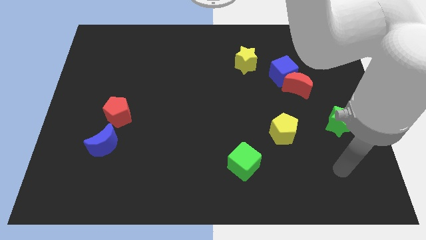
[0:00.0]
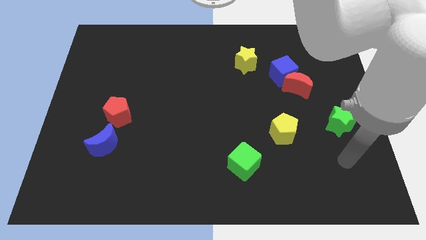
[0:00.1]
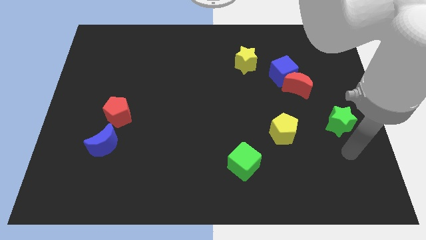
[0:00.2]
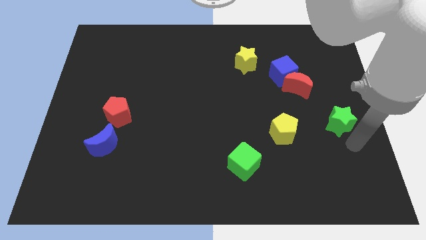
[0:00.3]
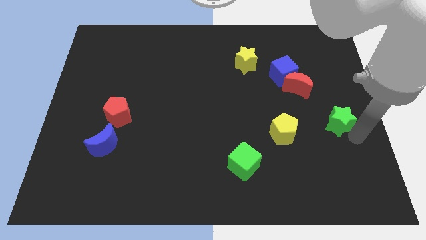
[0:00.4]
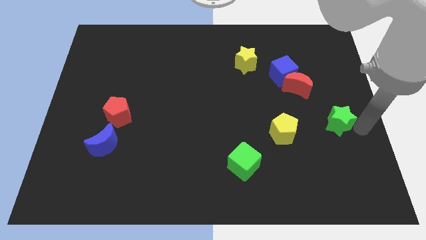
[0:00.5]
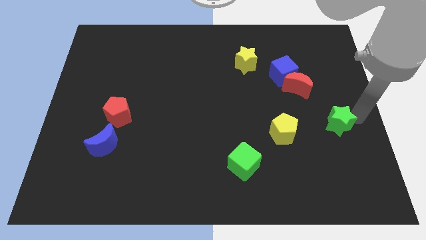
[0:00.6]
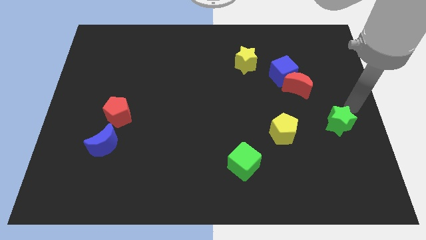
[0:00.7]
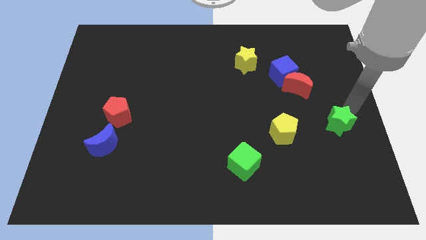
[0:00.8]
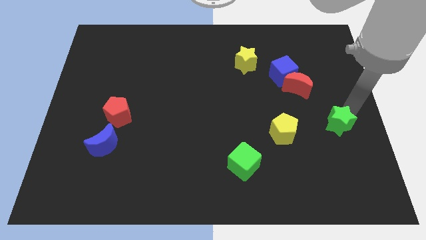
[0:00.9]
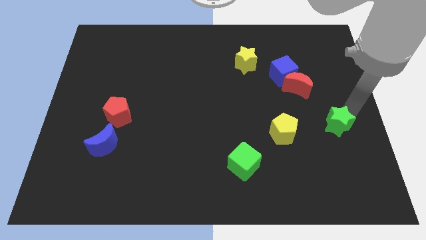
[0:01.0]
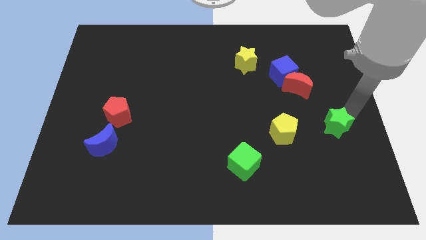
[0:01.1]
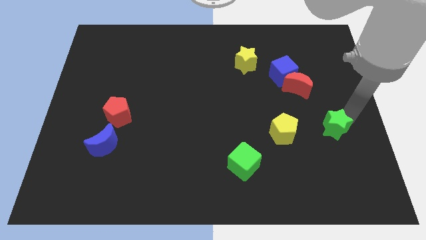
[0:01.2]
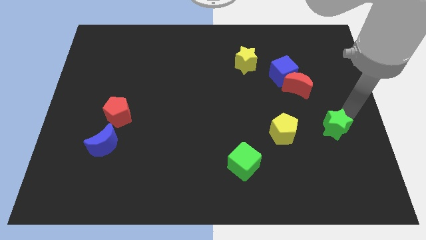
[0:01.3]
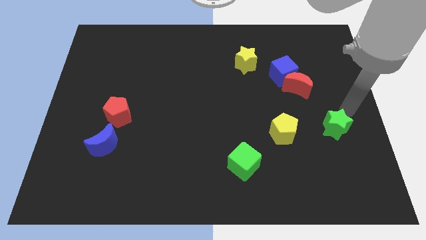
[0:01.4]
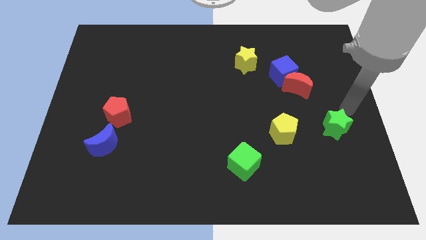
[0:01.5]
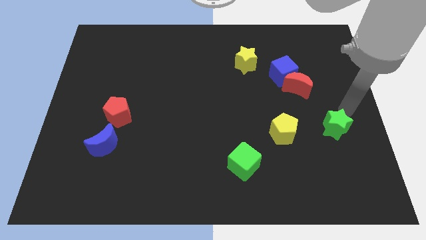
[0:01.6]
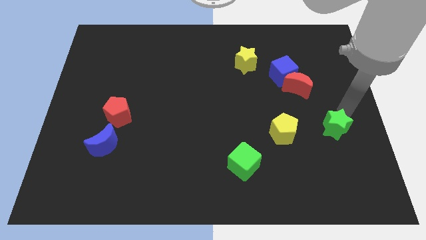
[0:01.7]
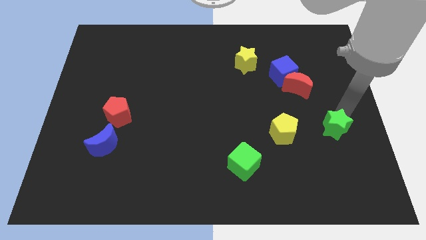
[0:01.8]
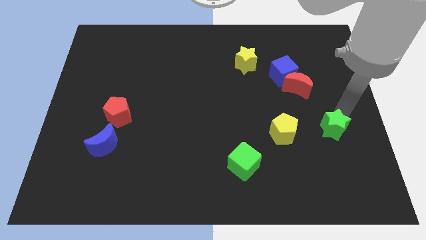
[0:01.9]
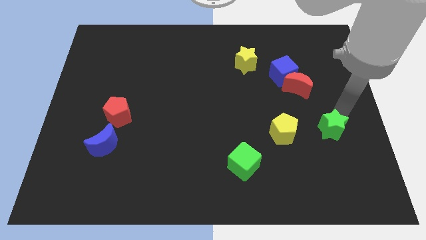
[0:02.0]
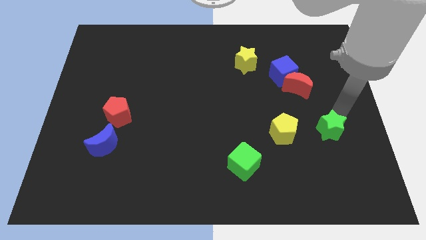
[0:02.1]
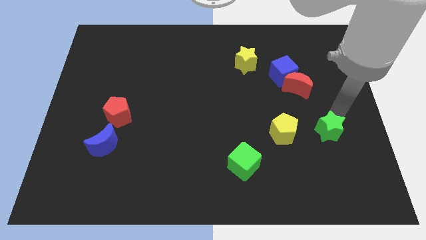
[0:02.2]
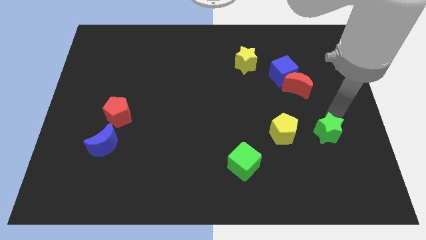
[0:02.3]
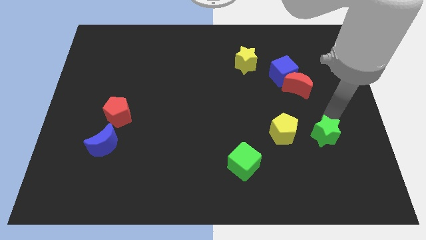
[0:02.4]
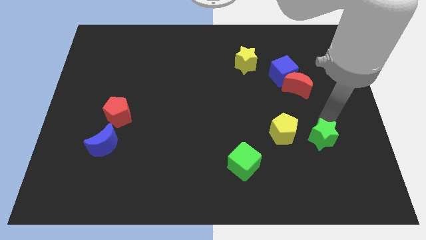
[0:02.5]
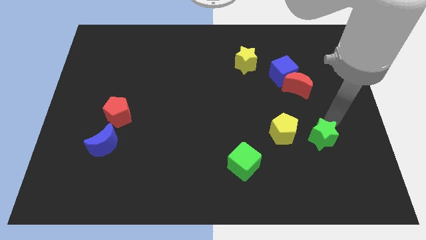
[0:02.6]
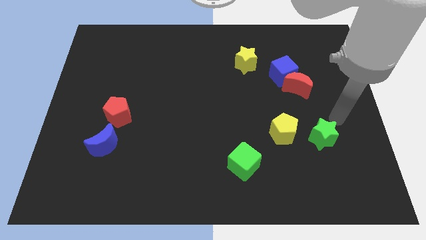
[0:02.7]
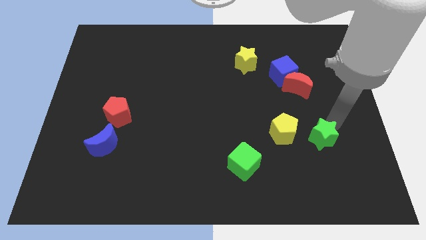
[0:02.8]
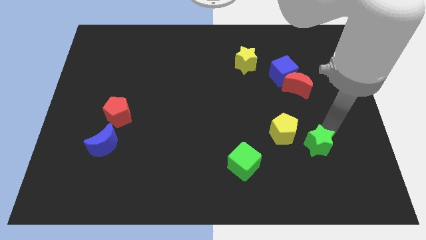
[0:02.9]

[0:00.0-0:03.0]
push the green star downwards and left diagonally a bit

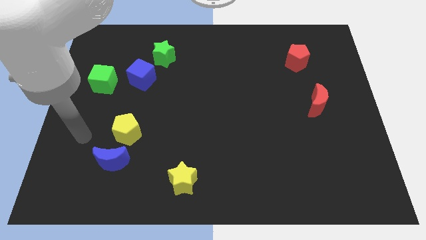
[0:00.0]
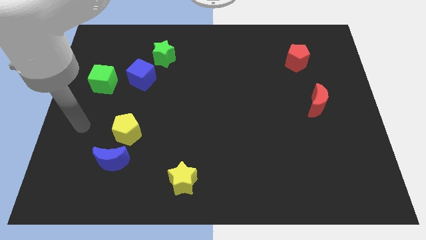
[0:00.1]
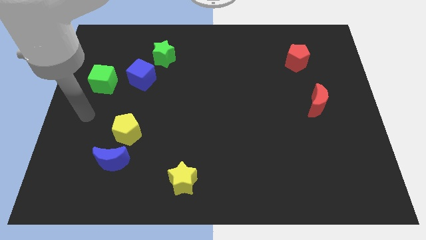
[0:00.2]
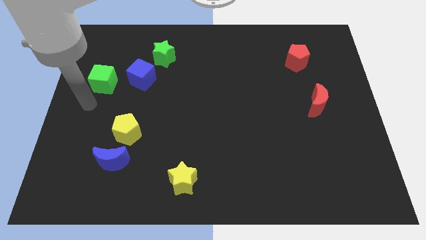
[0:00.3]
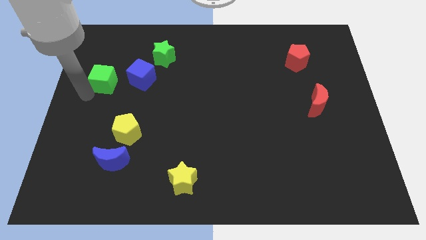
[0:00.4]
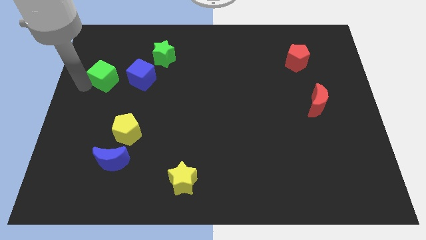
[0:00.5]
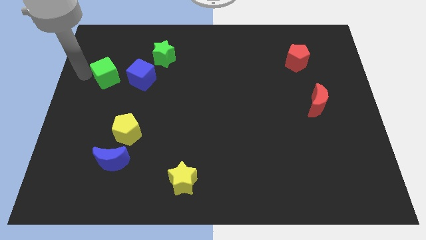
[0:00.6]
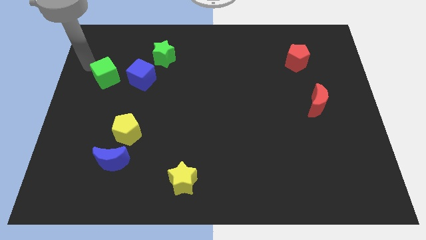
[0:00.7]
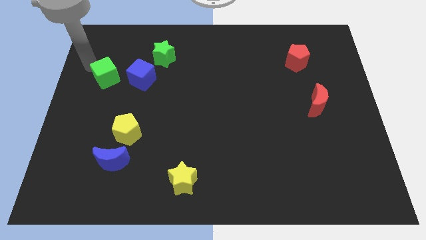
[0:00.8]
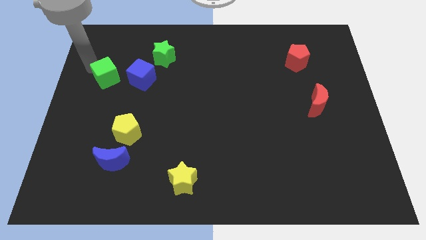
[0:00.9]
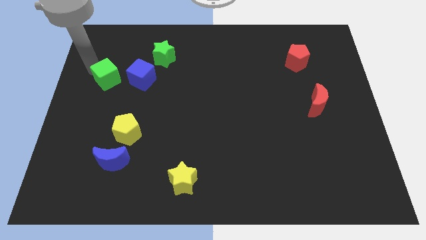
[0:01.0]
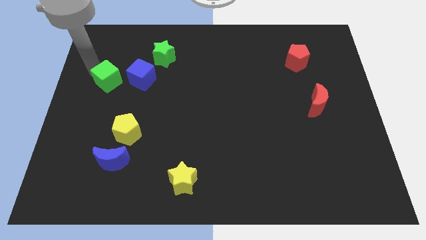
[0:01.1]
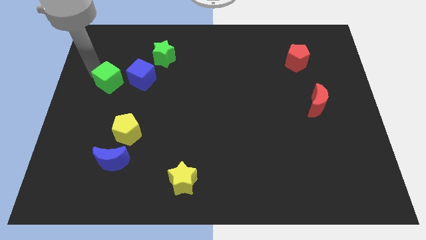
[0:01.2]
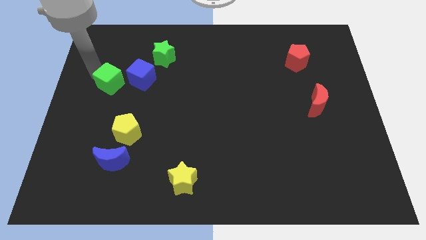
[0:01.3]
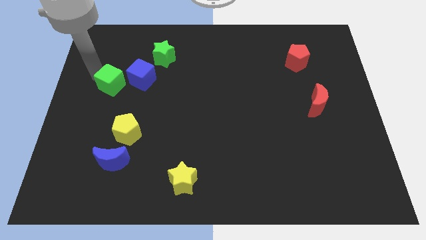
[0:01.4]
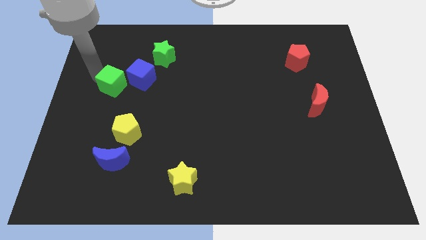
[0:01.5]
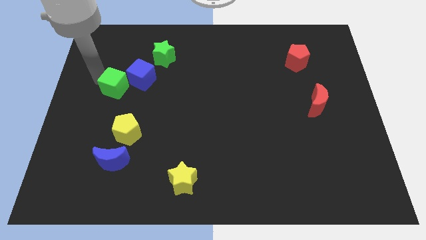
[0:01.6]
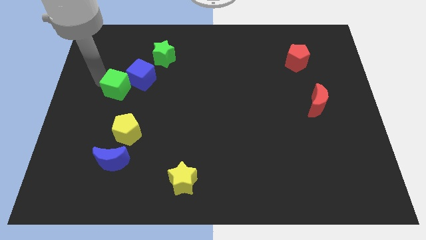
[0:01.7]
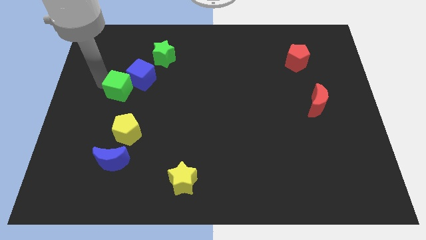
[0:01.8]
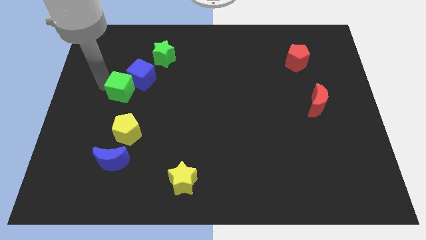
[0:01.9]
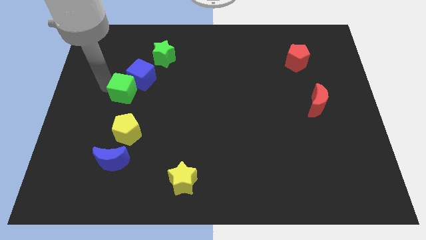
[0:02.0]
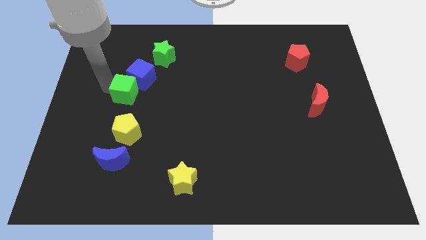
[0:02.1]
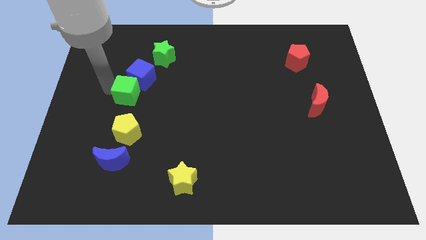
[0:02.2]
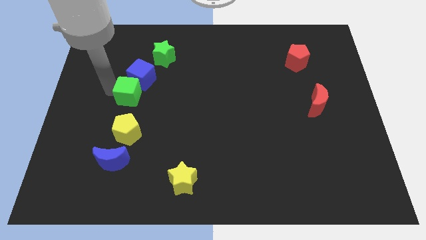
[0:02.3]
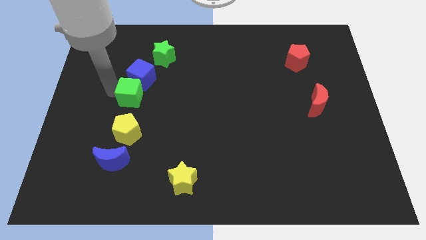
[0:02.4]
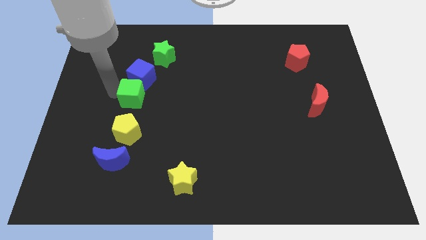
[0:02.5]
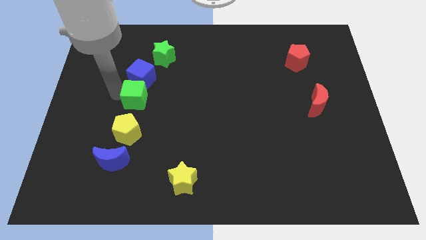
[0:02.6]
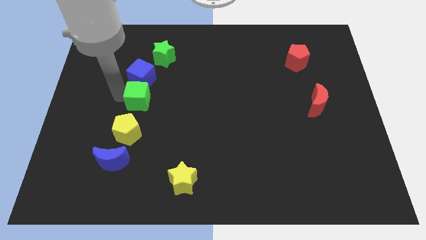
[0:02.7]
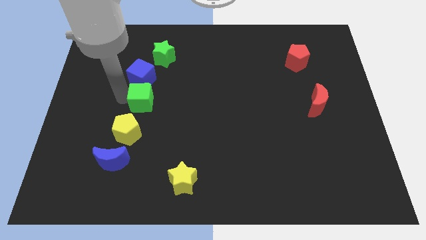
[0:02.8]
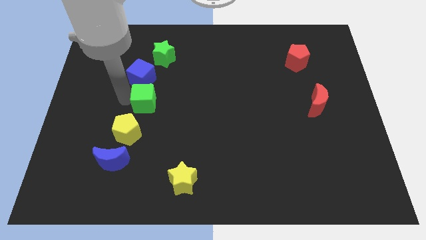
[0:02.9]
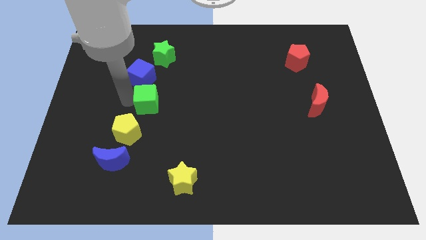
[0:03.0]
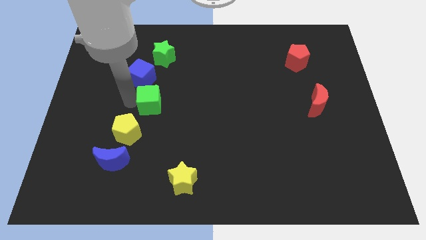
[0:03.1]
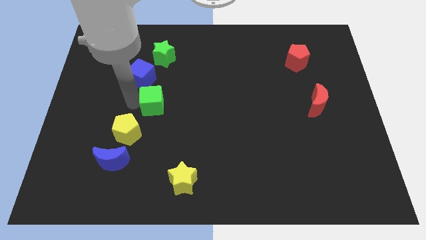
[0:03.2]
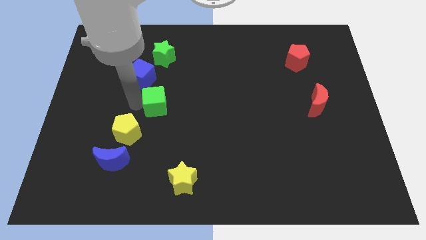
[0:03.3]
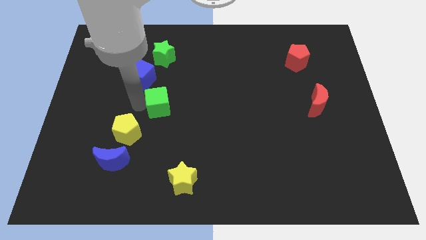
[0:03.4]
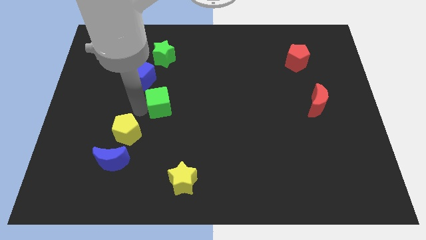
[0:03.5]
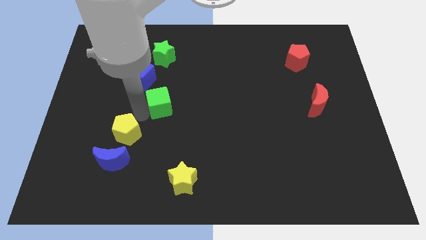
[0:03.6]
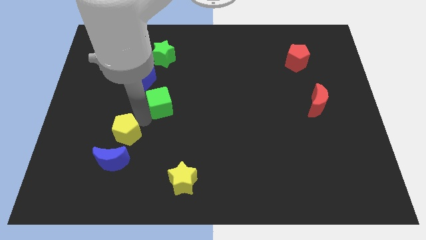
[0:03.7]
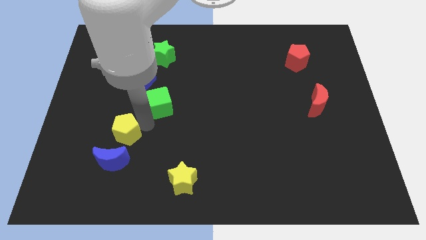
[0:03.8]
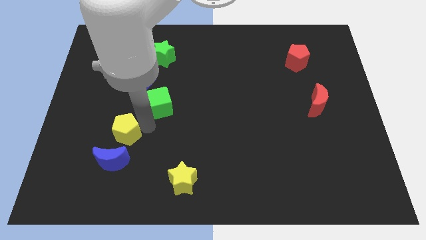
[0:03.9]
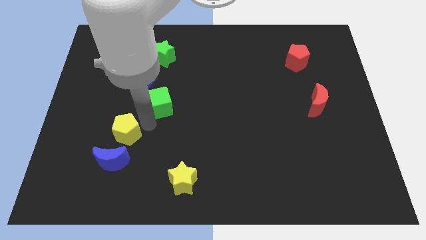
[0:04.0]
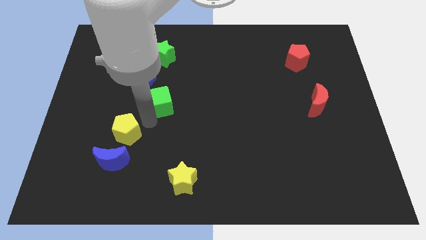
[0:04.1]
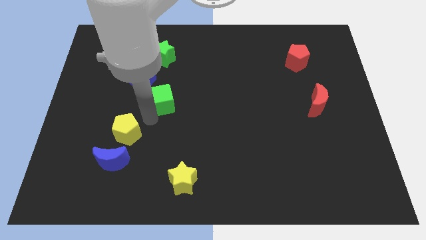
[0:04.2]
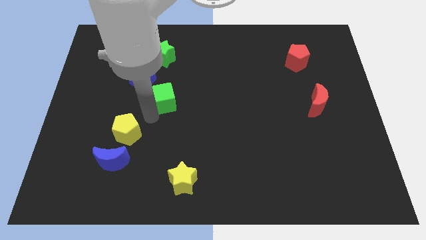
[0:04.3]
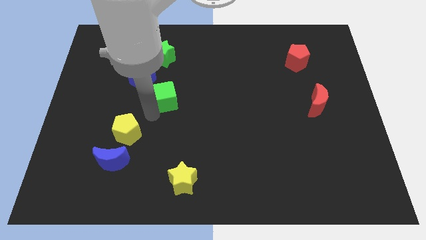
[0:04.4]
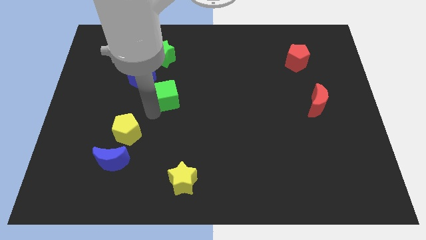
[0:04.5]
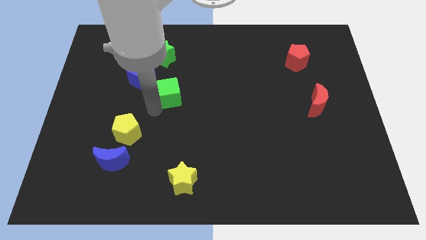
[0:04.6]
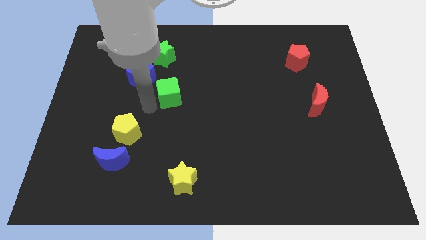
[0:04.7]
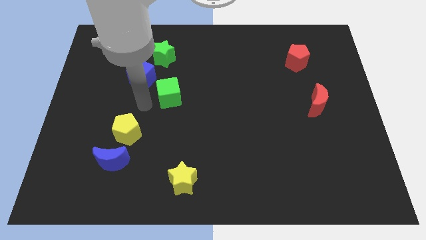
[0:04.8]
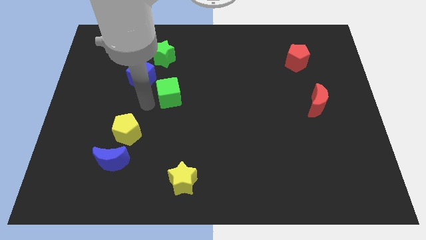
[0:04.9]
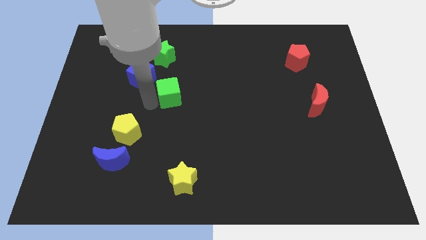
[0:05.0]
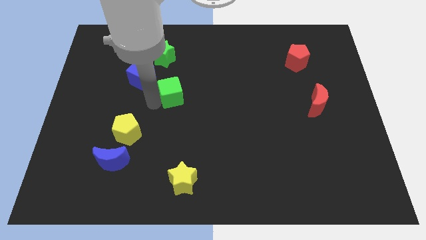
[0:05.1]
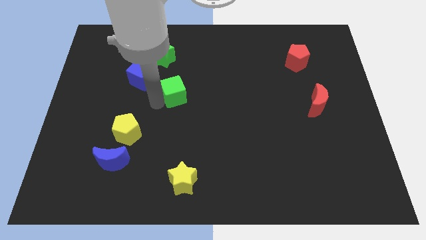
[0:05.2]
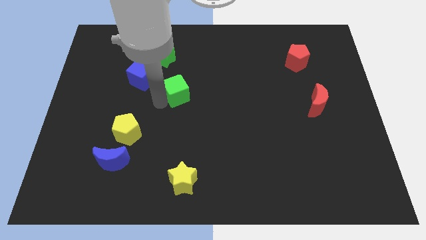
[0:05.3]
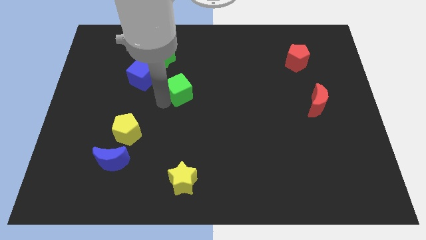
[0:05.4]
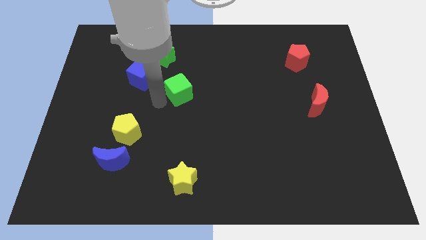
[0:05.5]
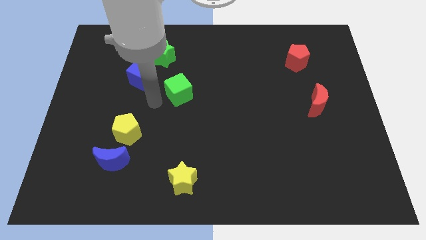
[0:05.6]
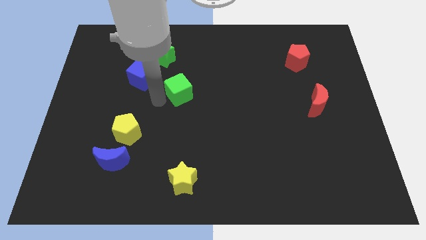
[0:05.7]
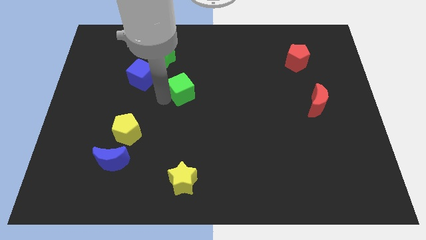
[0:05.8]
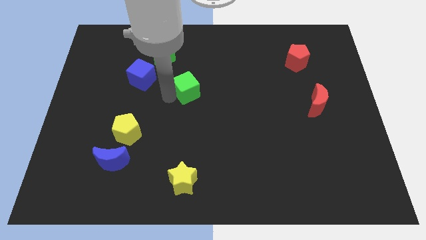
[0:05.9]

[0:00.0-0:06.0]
push the green cube to the right
